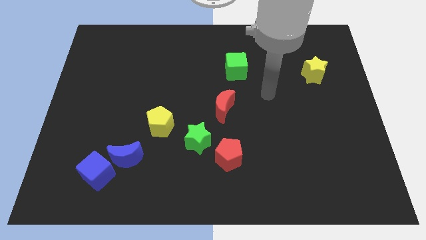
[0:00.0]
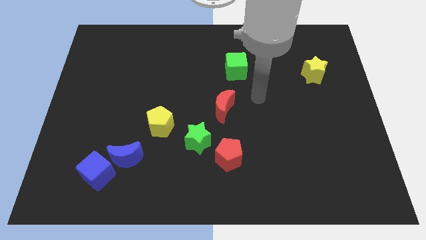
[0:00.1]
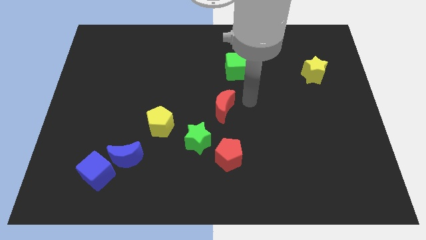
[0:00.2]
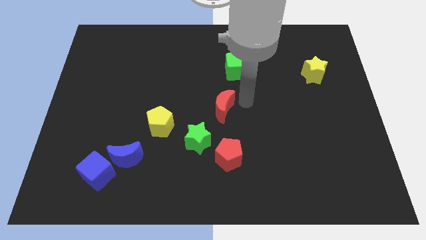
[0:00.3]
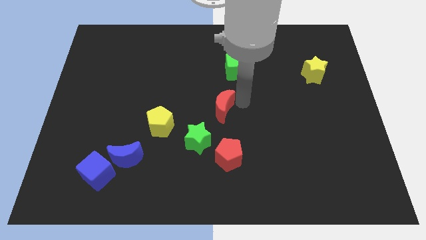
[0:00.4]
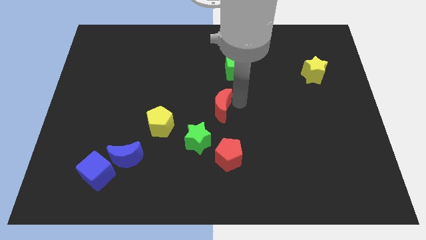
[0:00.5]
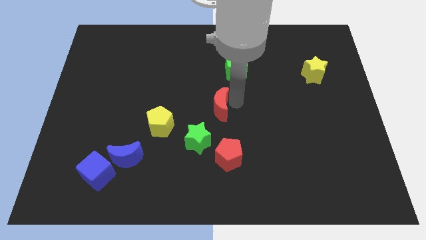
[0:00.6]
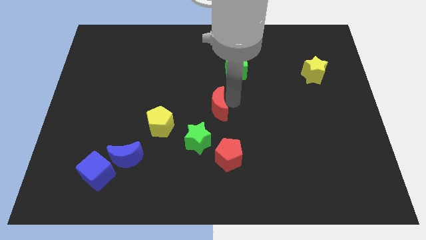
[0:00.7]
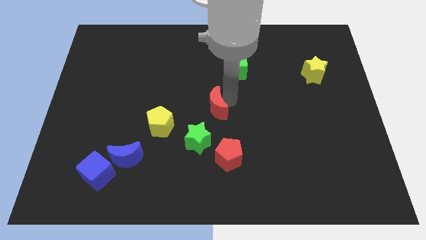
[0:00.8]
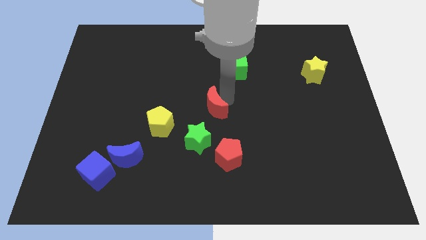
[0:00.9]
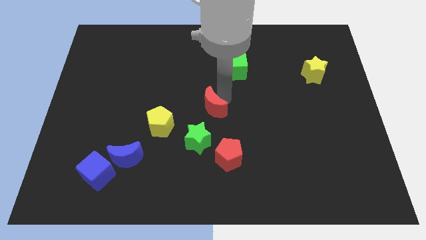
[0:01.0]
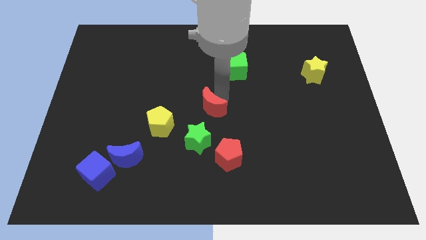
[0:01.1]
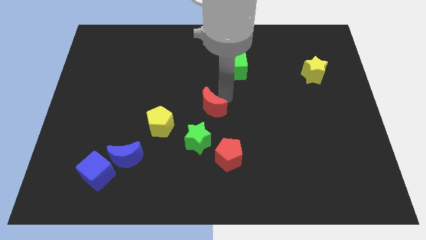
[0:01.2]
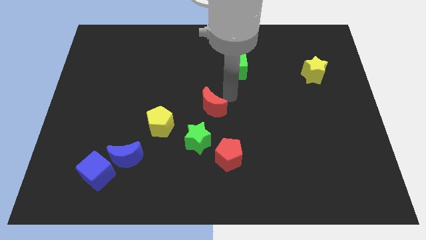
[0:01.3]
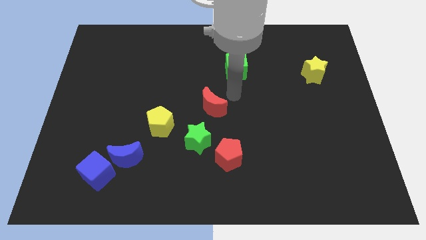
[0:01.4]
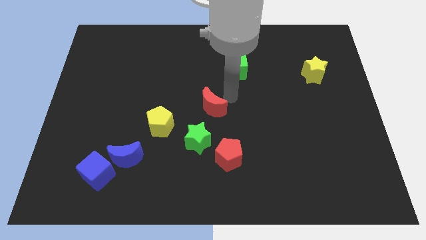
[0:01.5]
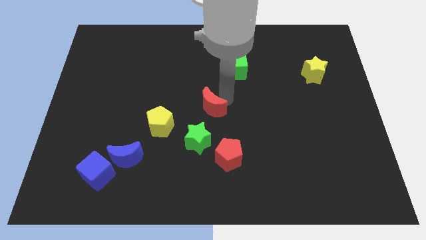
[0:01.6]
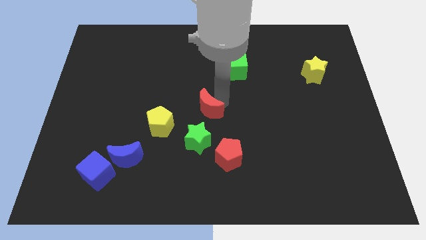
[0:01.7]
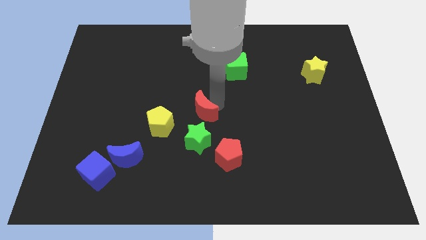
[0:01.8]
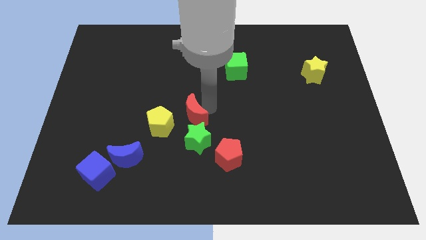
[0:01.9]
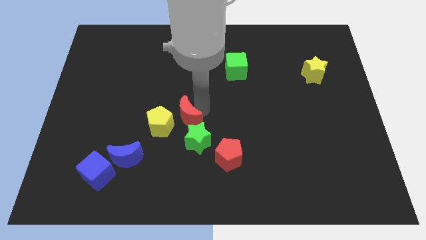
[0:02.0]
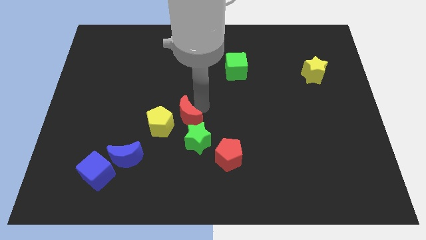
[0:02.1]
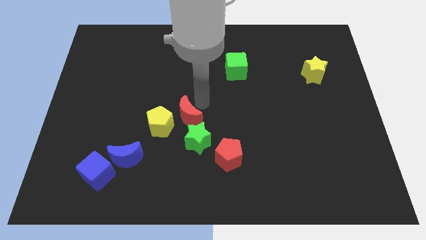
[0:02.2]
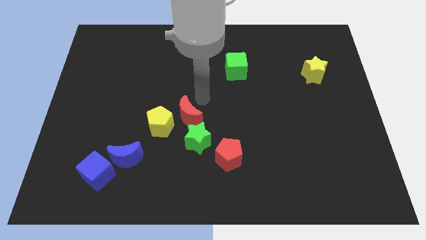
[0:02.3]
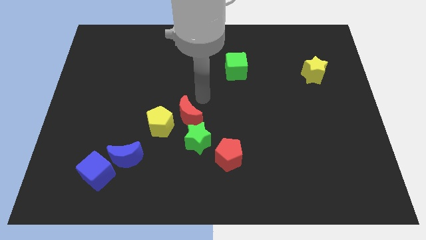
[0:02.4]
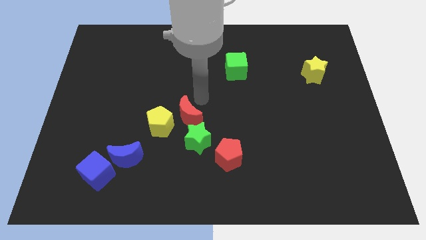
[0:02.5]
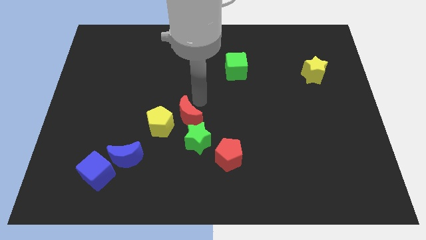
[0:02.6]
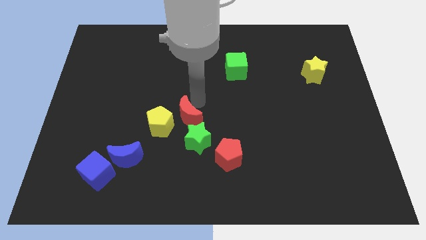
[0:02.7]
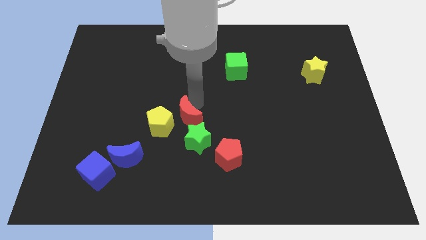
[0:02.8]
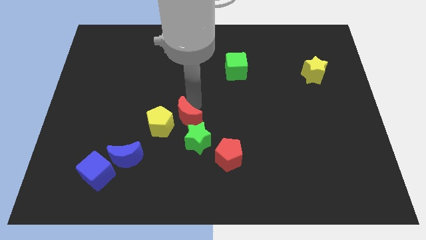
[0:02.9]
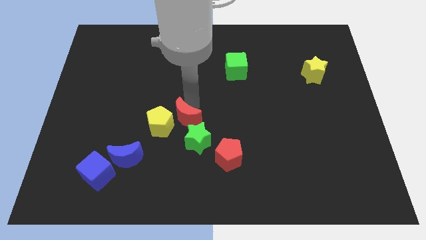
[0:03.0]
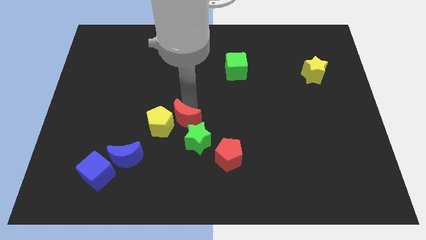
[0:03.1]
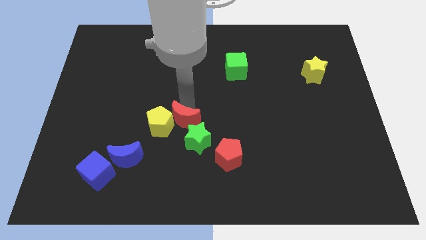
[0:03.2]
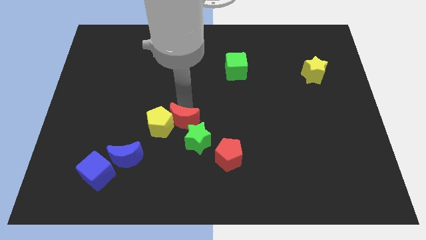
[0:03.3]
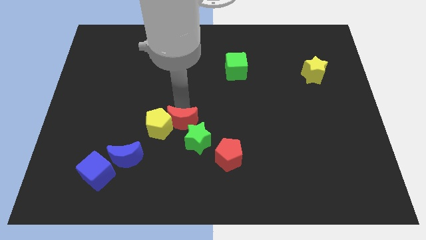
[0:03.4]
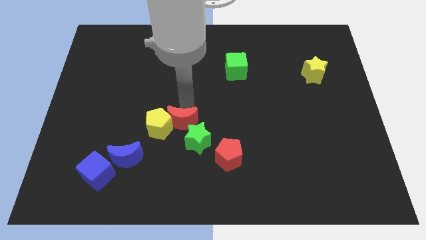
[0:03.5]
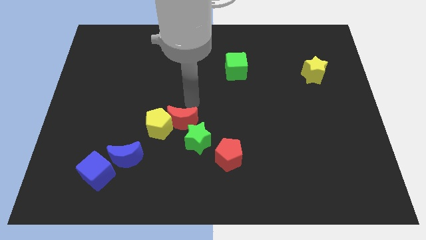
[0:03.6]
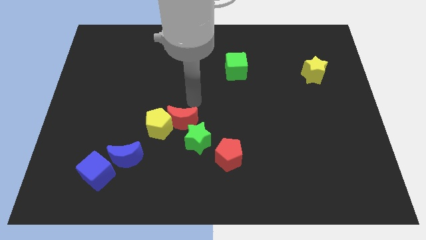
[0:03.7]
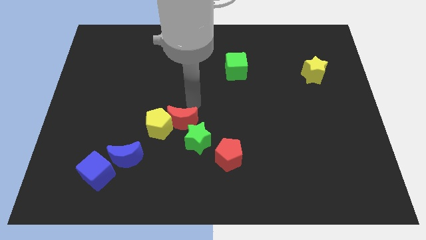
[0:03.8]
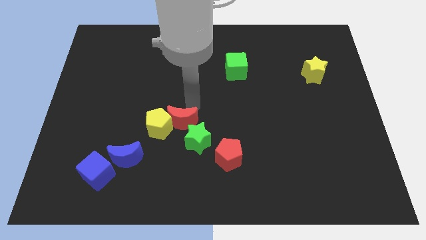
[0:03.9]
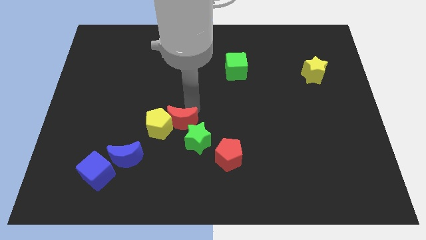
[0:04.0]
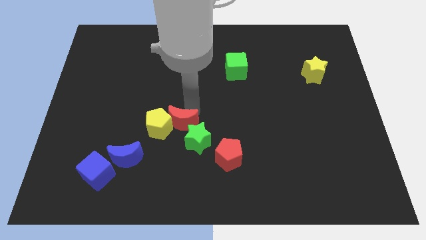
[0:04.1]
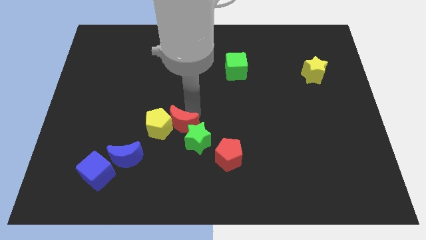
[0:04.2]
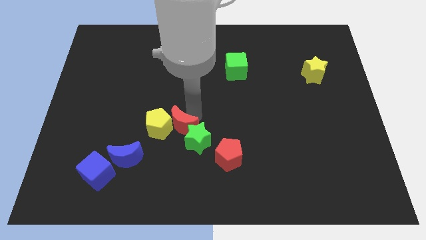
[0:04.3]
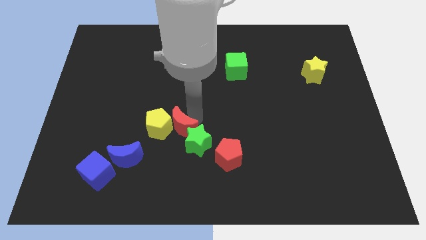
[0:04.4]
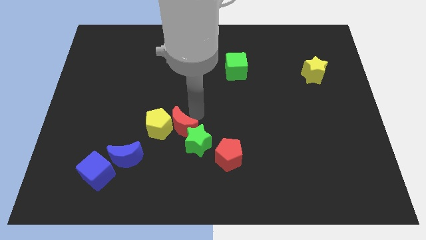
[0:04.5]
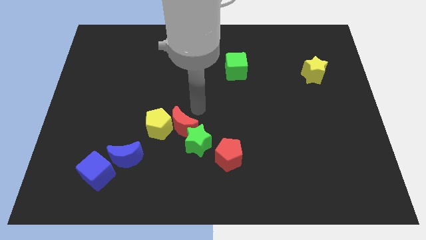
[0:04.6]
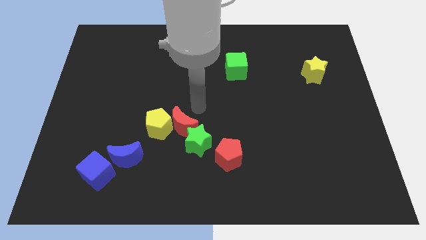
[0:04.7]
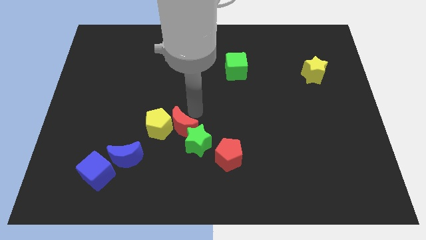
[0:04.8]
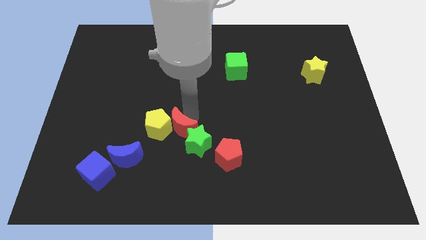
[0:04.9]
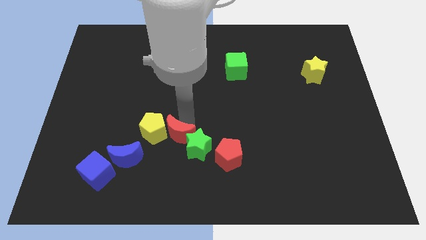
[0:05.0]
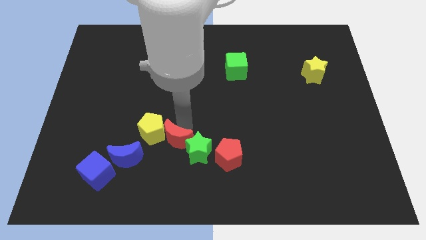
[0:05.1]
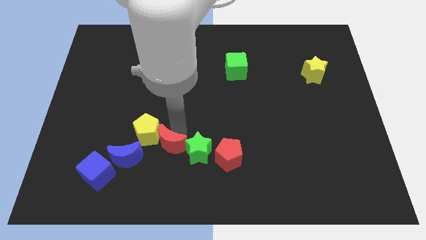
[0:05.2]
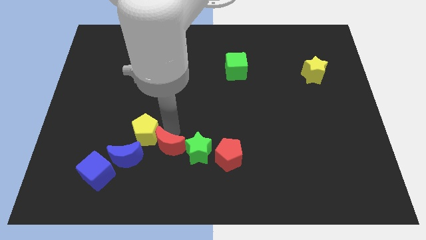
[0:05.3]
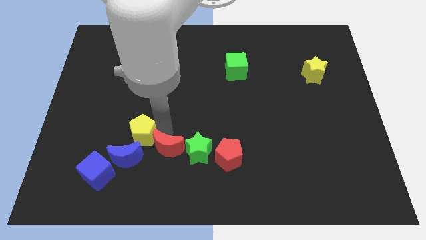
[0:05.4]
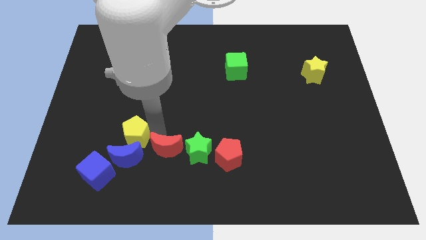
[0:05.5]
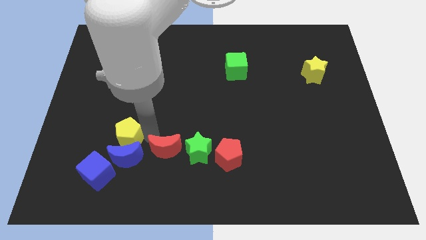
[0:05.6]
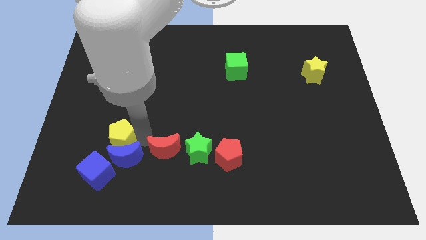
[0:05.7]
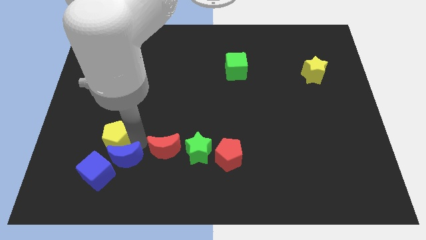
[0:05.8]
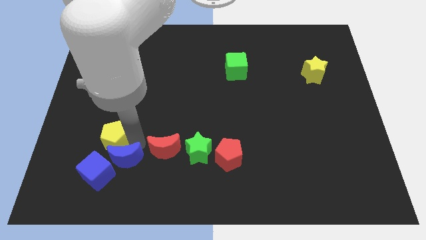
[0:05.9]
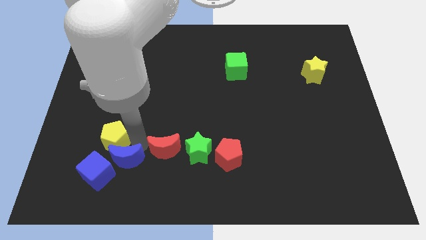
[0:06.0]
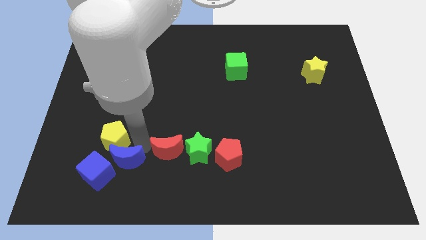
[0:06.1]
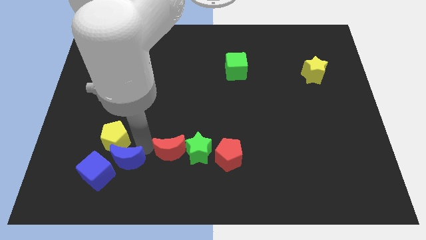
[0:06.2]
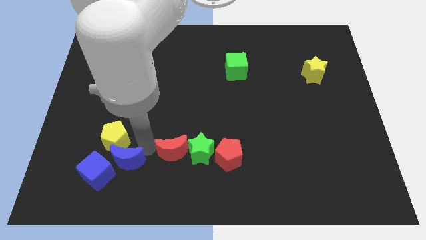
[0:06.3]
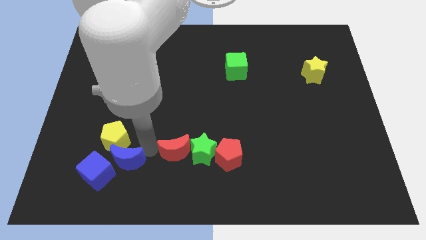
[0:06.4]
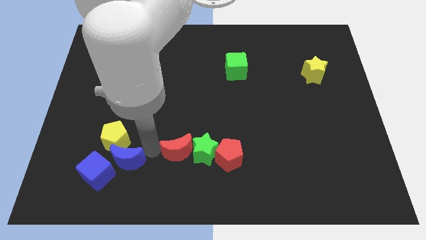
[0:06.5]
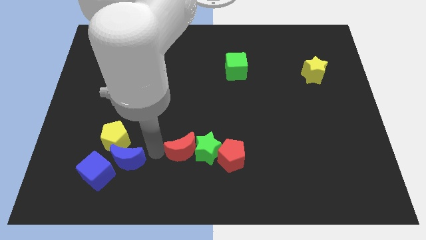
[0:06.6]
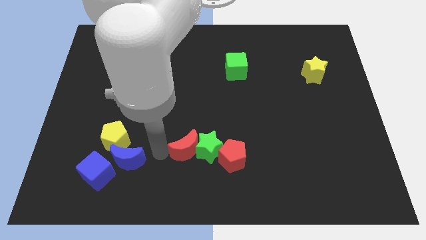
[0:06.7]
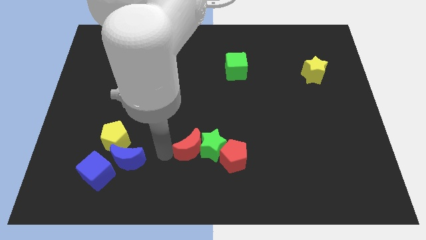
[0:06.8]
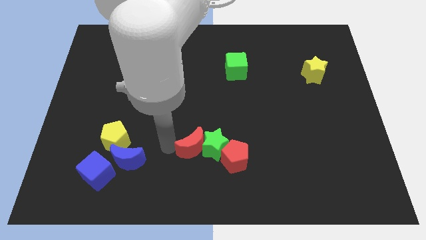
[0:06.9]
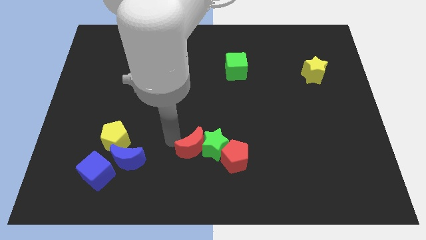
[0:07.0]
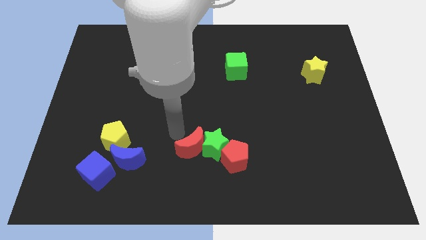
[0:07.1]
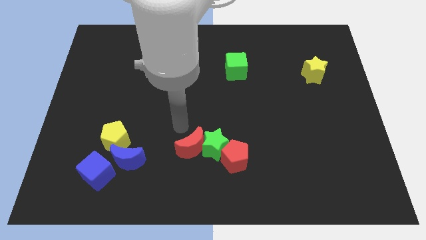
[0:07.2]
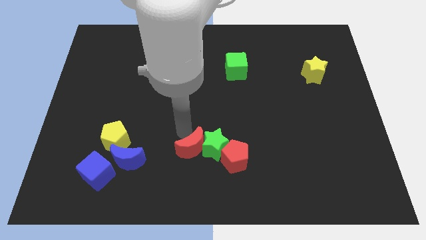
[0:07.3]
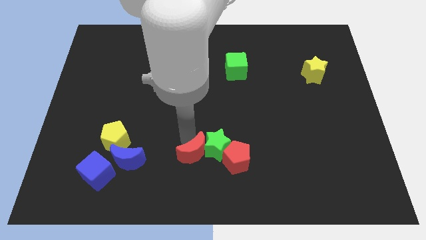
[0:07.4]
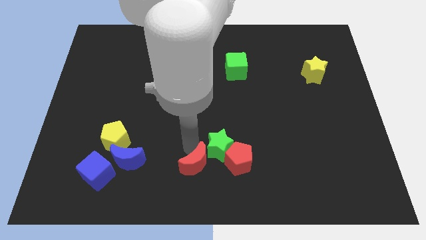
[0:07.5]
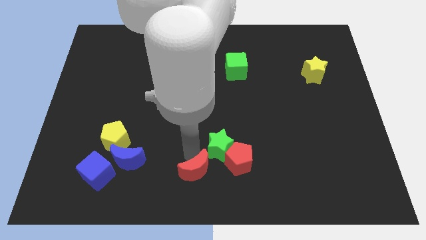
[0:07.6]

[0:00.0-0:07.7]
slide the red moon to the bottom left of the red pentagon
